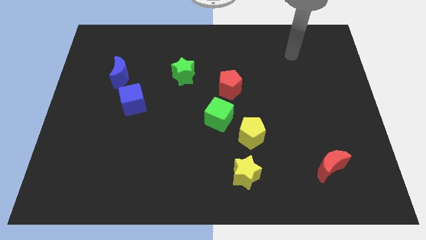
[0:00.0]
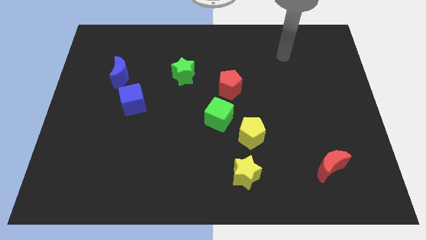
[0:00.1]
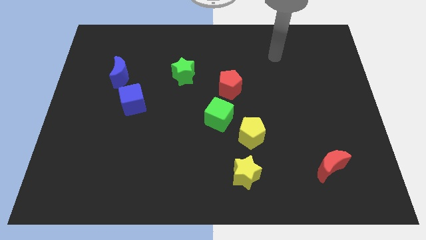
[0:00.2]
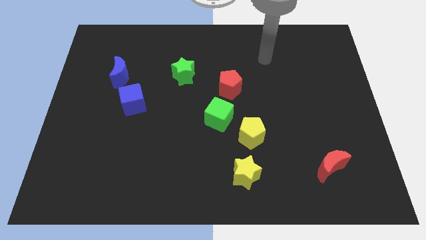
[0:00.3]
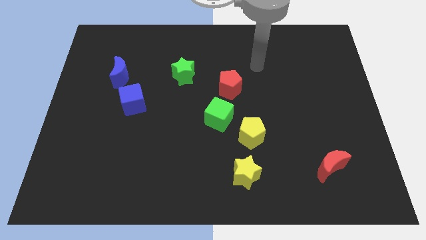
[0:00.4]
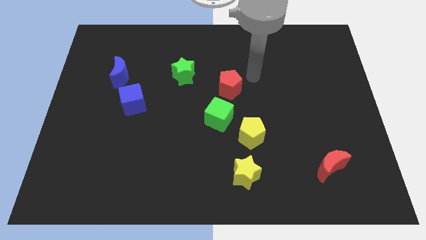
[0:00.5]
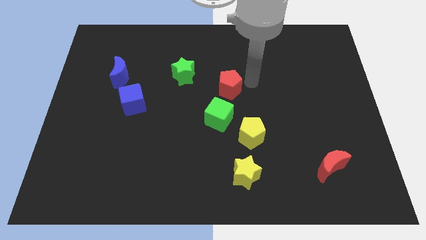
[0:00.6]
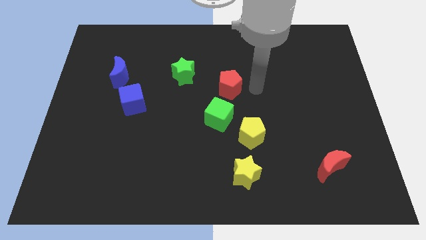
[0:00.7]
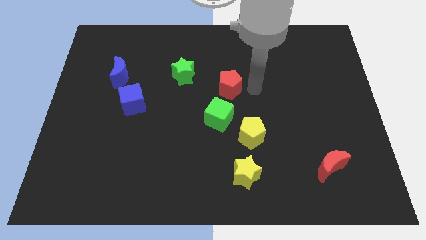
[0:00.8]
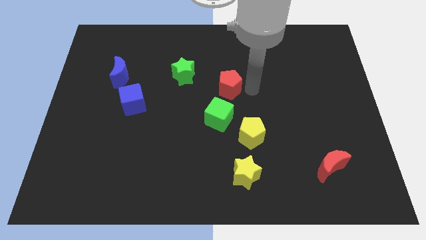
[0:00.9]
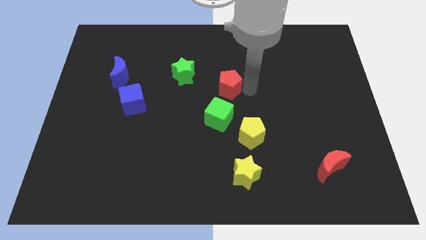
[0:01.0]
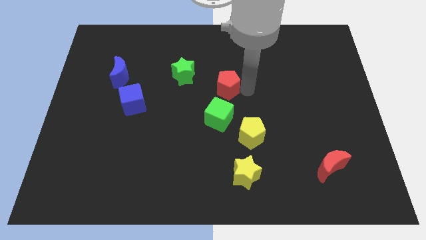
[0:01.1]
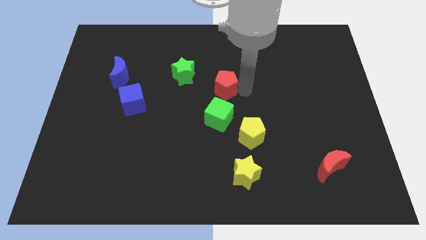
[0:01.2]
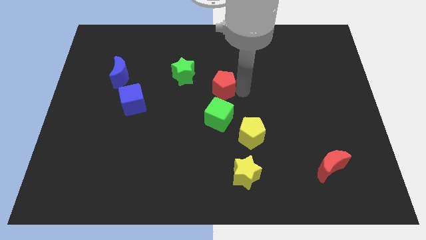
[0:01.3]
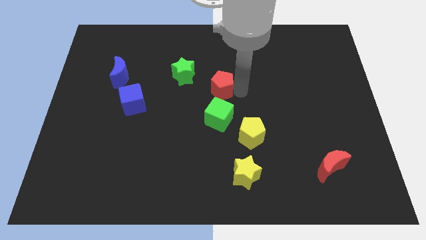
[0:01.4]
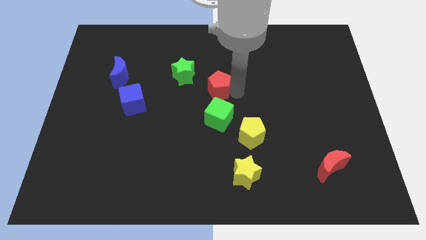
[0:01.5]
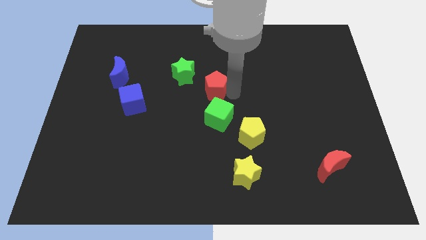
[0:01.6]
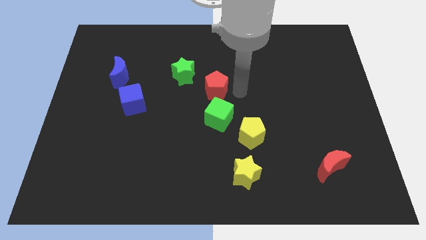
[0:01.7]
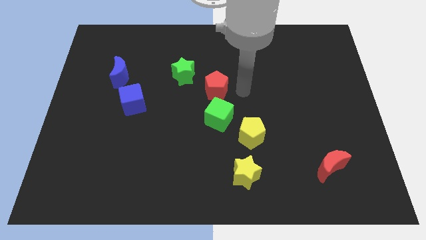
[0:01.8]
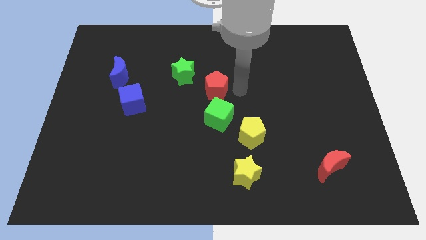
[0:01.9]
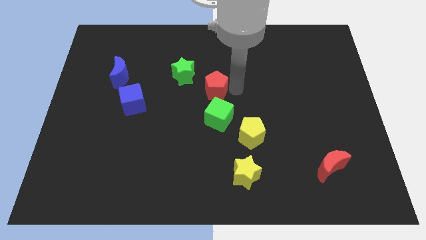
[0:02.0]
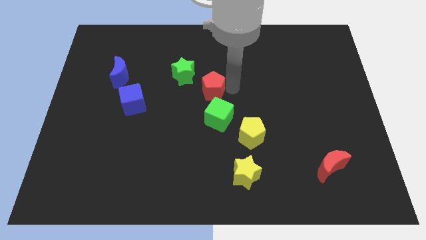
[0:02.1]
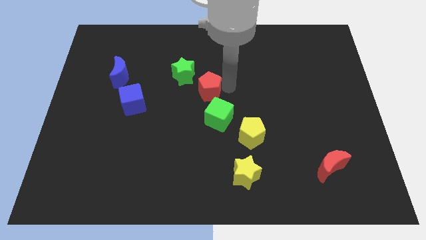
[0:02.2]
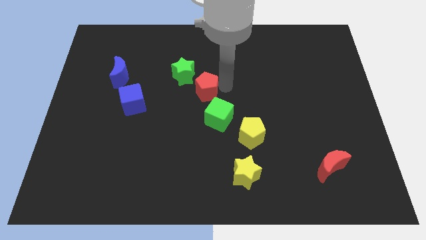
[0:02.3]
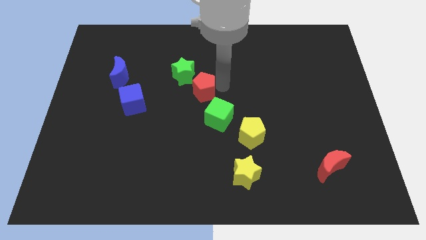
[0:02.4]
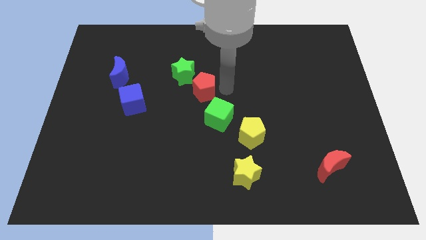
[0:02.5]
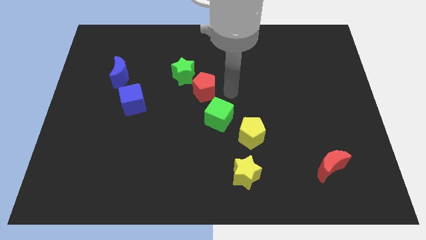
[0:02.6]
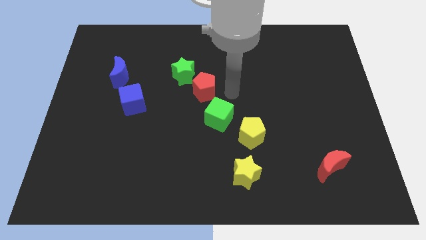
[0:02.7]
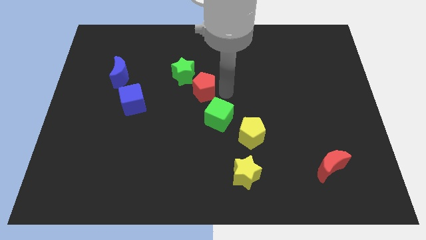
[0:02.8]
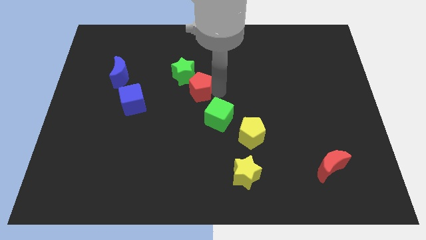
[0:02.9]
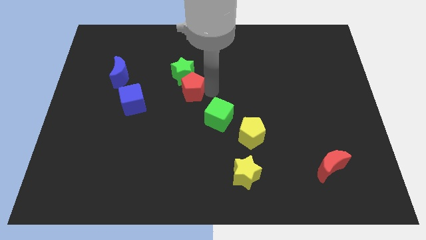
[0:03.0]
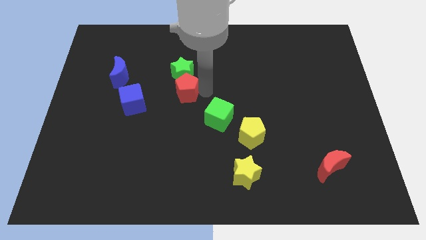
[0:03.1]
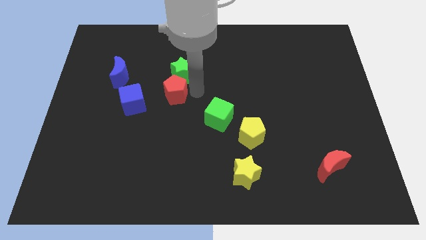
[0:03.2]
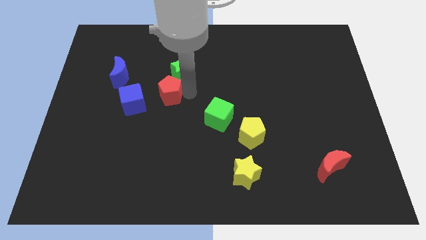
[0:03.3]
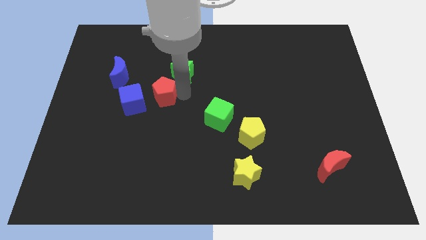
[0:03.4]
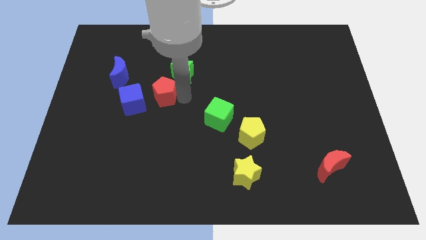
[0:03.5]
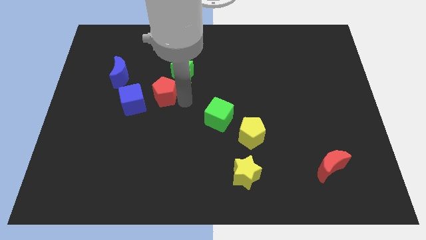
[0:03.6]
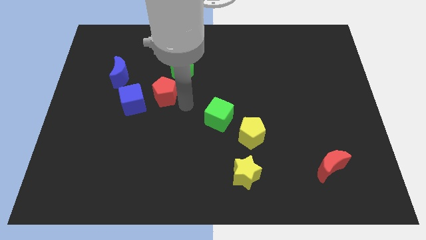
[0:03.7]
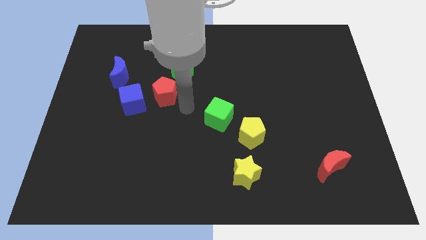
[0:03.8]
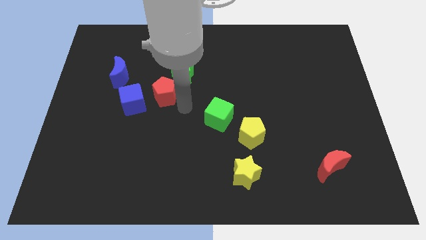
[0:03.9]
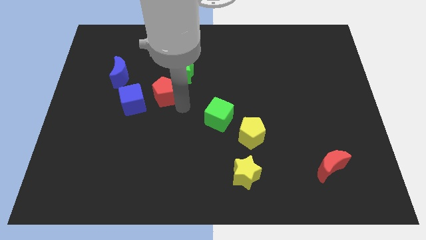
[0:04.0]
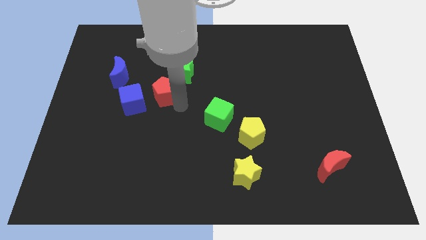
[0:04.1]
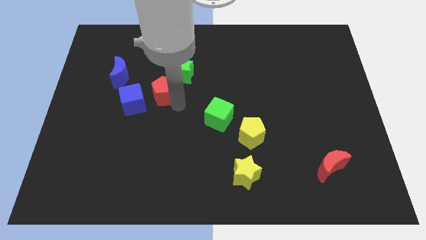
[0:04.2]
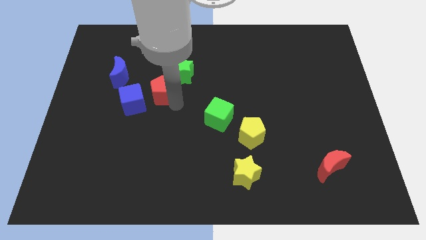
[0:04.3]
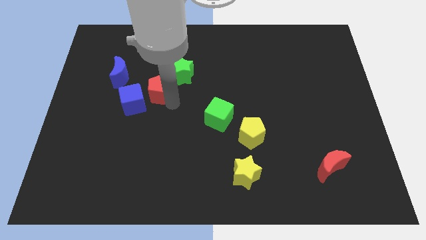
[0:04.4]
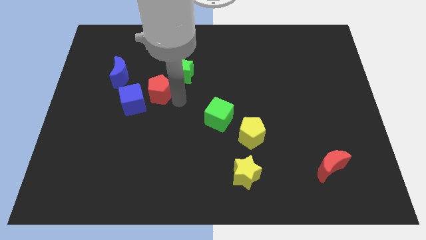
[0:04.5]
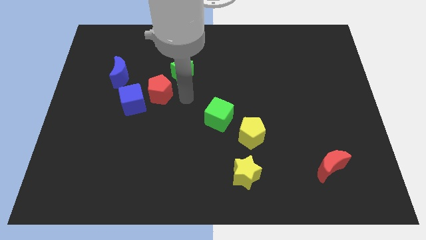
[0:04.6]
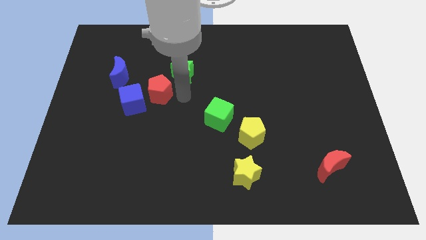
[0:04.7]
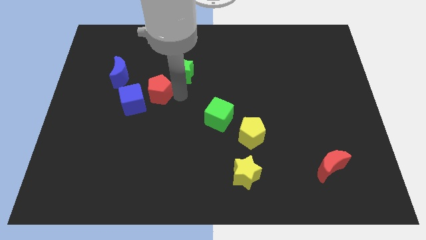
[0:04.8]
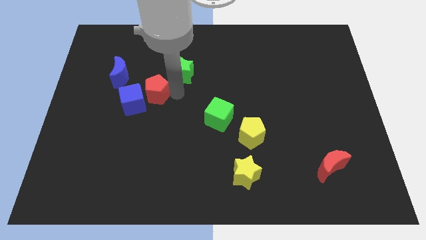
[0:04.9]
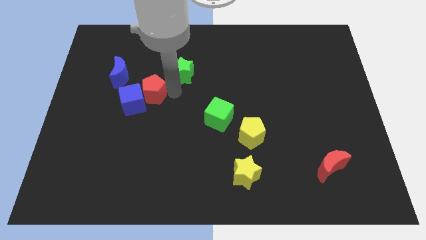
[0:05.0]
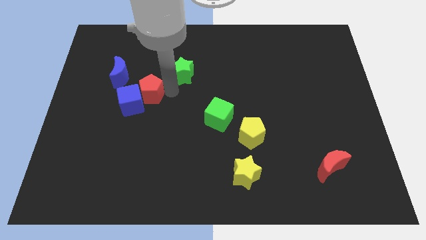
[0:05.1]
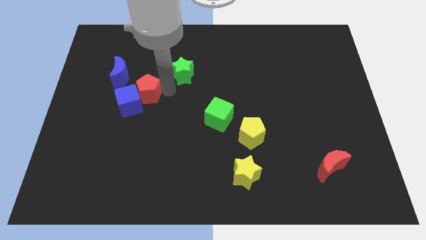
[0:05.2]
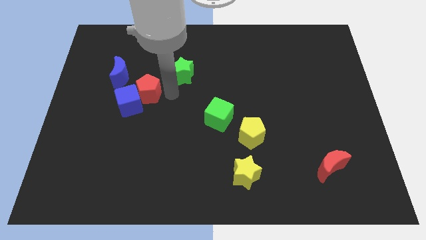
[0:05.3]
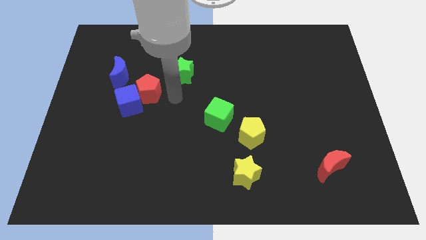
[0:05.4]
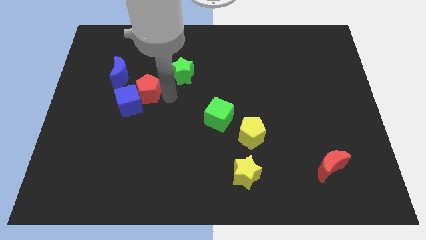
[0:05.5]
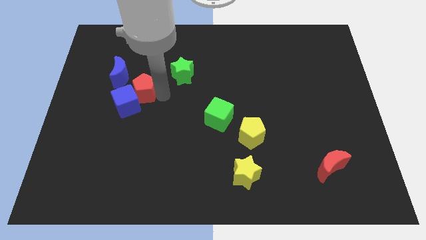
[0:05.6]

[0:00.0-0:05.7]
slide the red pentagon to the left

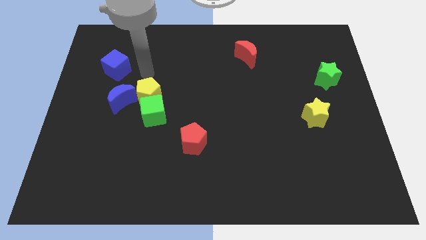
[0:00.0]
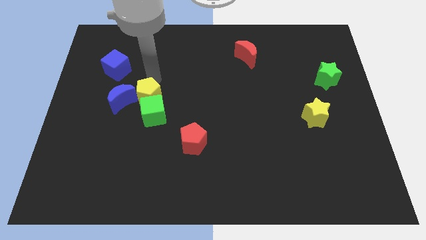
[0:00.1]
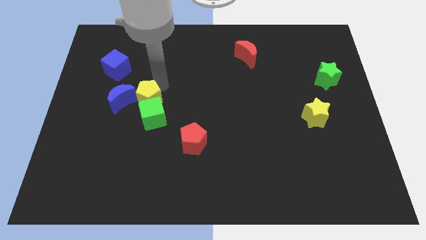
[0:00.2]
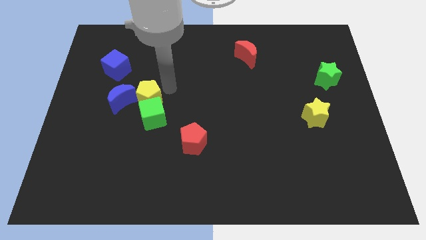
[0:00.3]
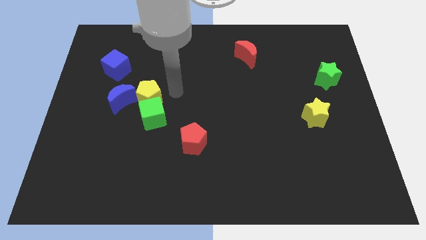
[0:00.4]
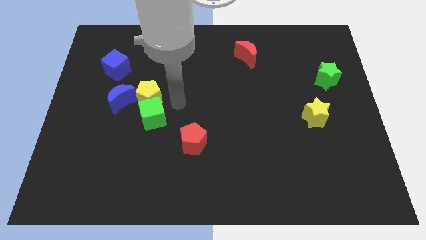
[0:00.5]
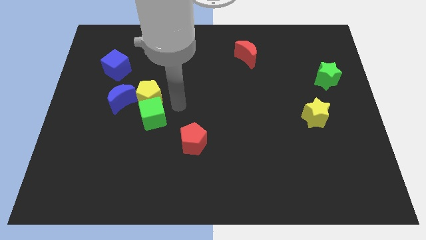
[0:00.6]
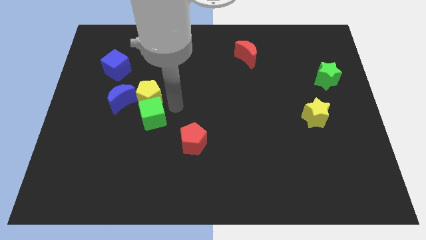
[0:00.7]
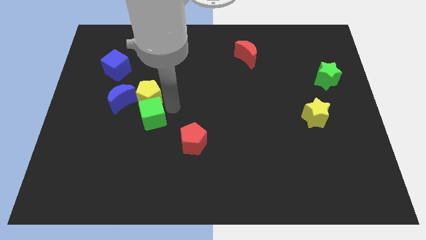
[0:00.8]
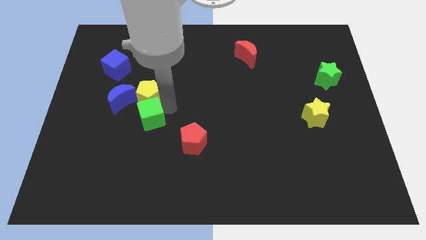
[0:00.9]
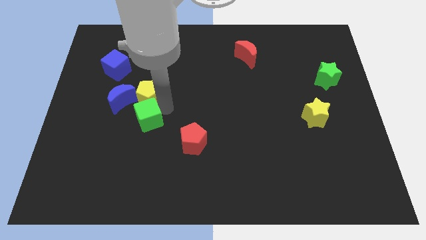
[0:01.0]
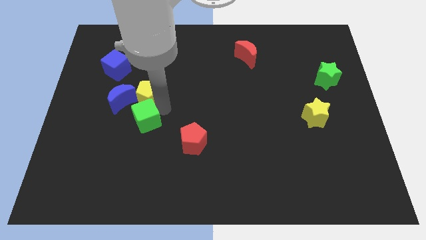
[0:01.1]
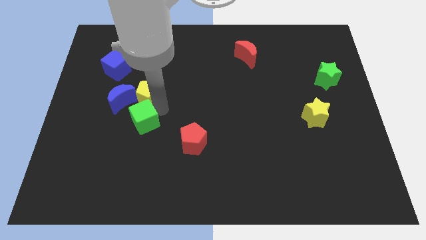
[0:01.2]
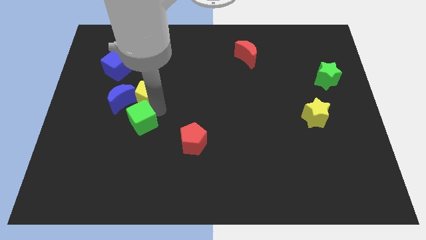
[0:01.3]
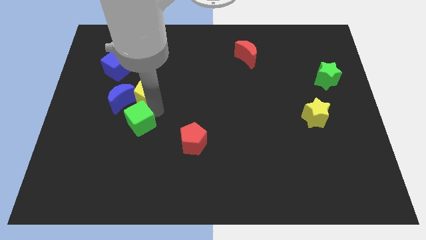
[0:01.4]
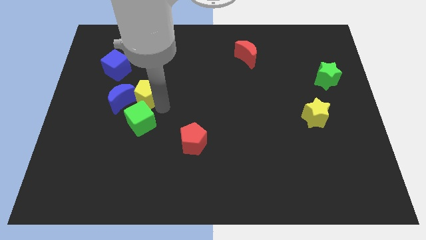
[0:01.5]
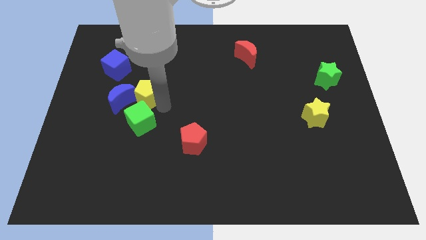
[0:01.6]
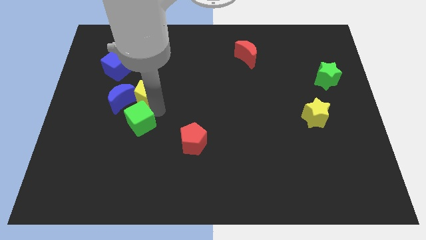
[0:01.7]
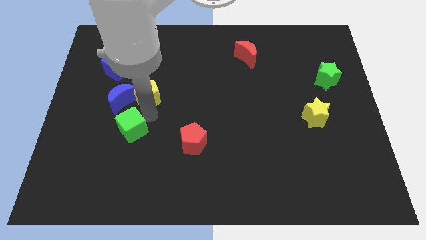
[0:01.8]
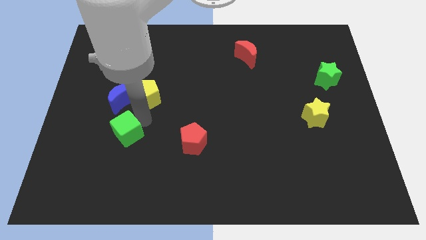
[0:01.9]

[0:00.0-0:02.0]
slightly move the green cube down and left

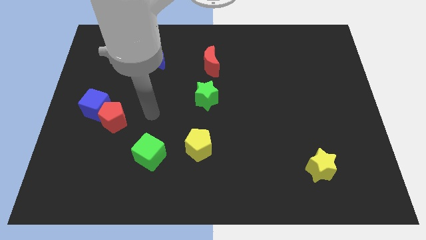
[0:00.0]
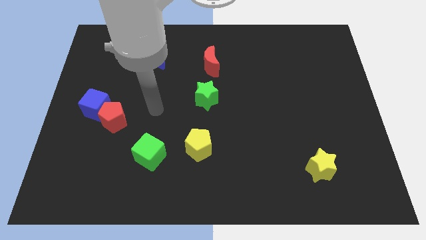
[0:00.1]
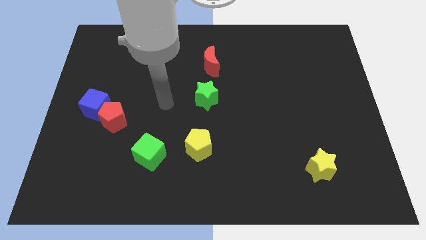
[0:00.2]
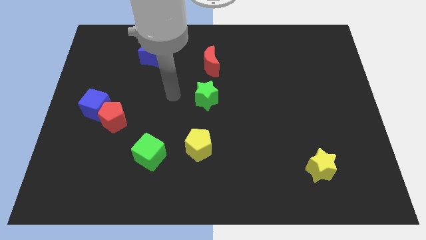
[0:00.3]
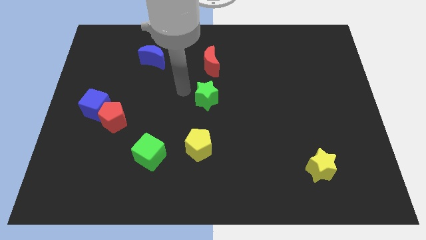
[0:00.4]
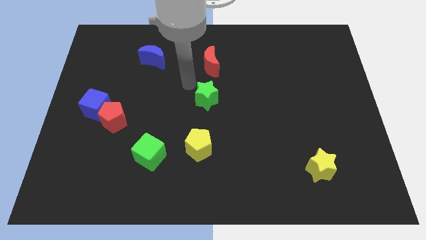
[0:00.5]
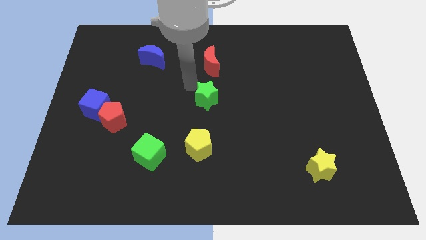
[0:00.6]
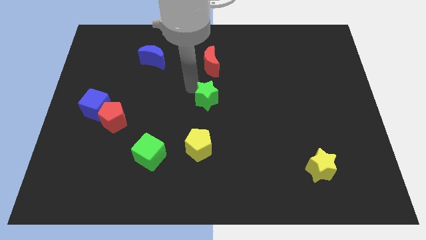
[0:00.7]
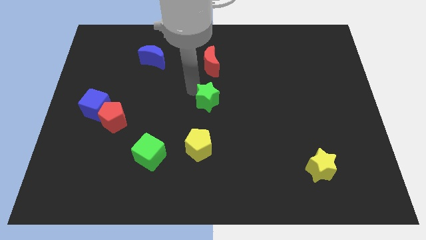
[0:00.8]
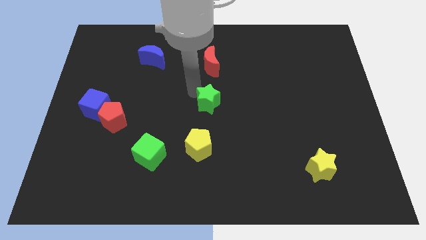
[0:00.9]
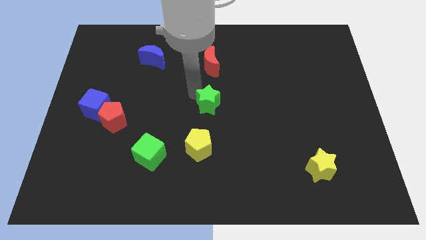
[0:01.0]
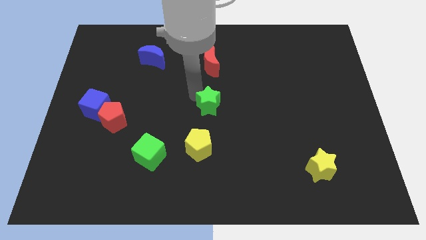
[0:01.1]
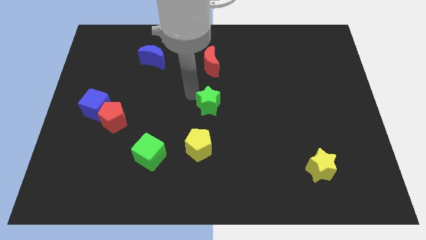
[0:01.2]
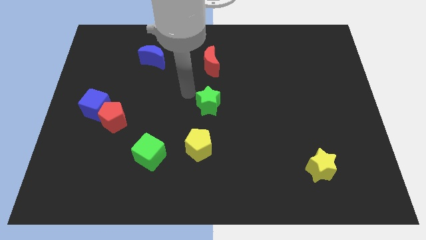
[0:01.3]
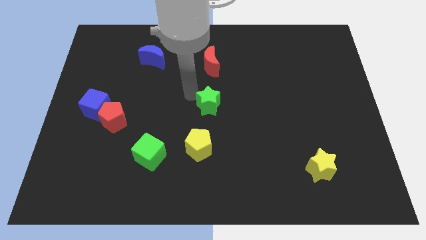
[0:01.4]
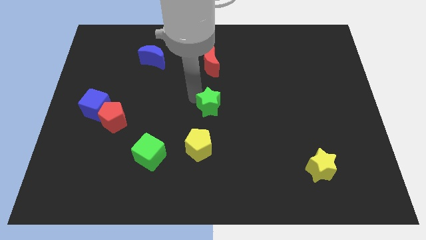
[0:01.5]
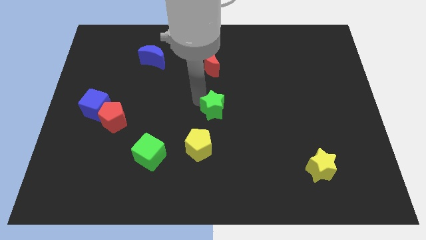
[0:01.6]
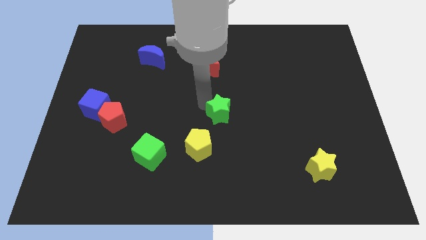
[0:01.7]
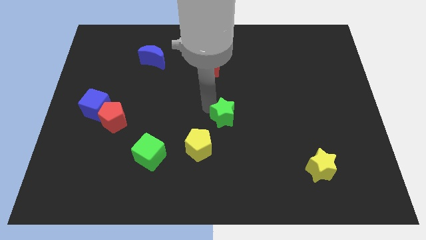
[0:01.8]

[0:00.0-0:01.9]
slightly push the green star diagonally downwards and right
